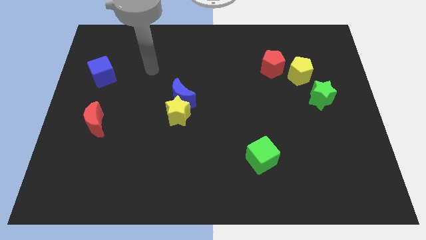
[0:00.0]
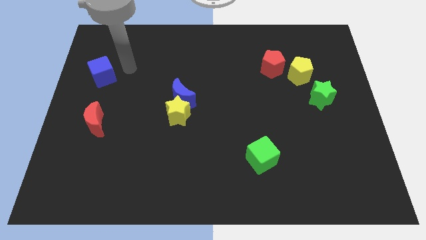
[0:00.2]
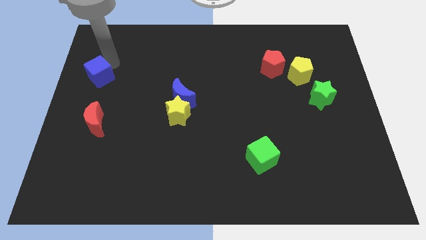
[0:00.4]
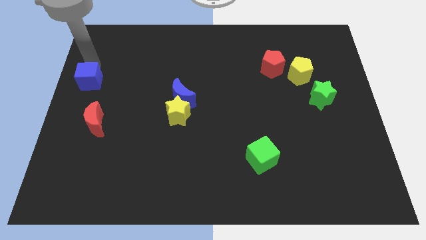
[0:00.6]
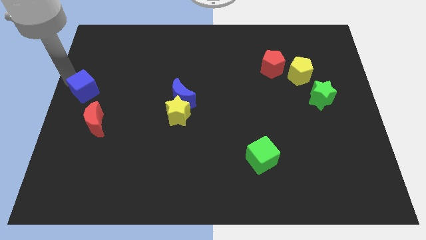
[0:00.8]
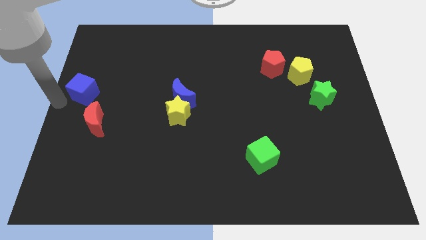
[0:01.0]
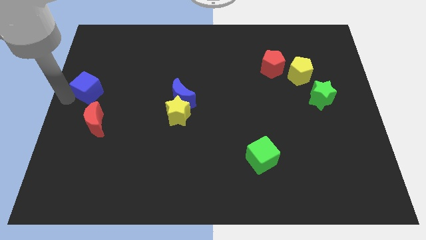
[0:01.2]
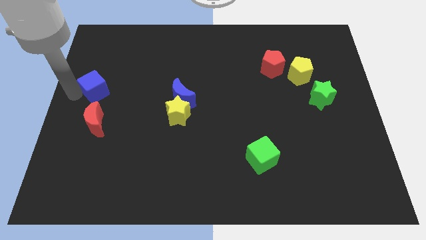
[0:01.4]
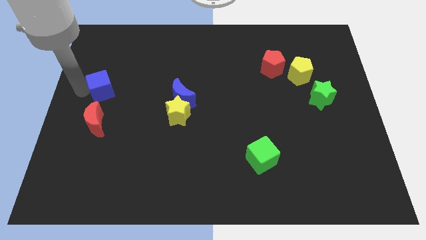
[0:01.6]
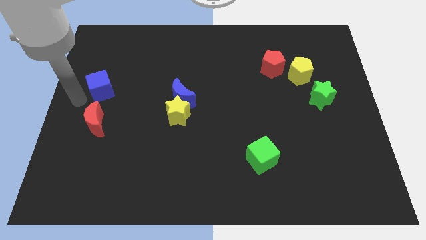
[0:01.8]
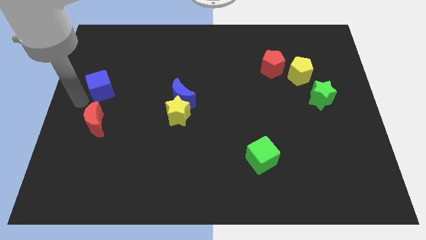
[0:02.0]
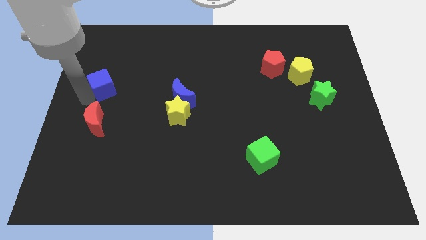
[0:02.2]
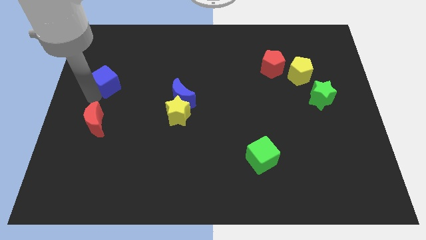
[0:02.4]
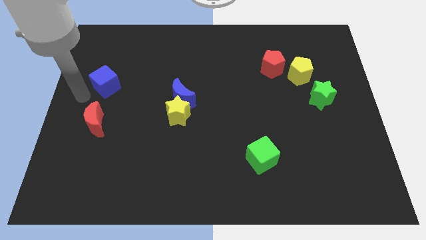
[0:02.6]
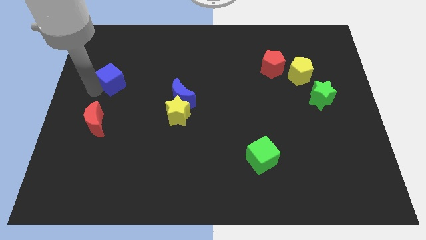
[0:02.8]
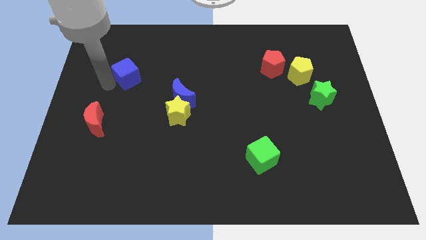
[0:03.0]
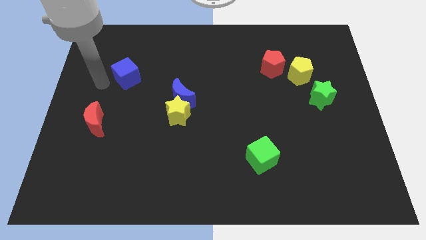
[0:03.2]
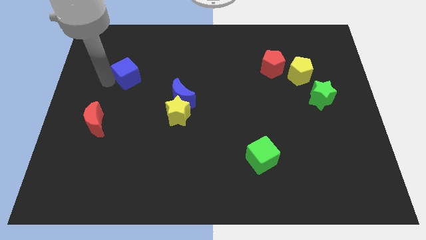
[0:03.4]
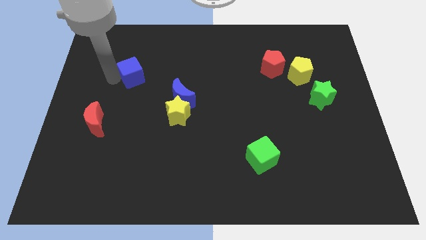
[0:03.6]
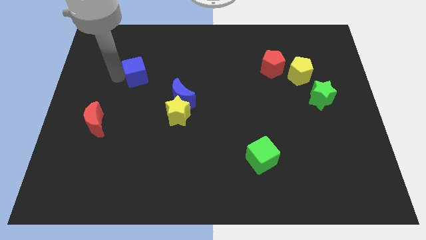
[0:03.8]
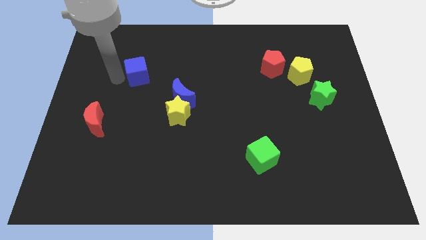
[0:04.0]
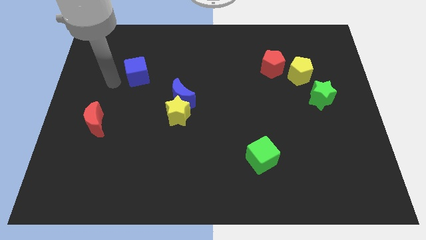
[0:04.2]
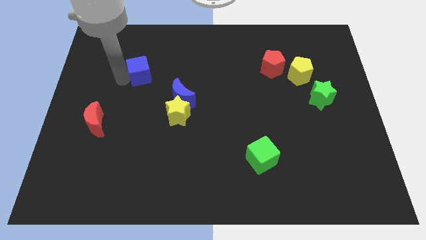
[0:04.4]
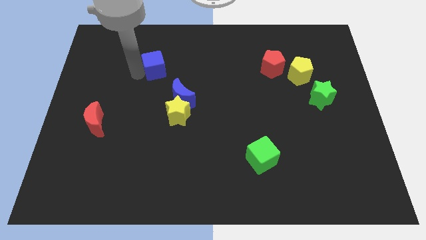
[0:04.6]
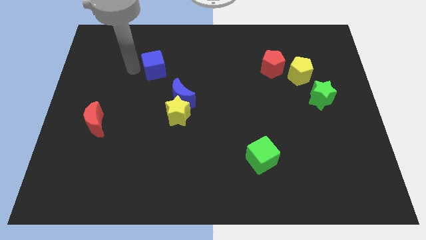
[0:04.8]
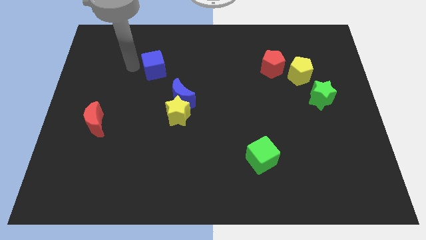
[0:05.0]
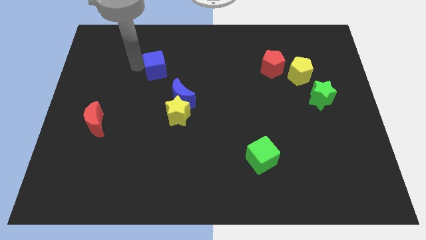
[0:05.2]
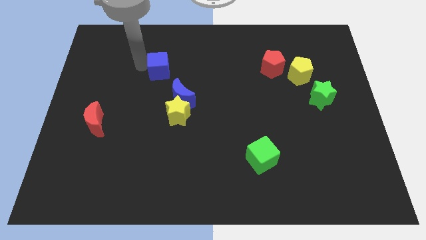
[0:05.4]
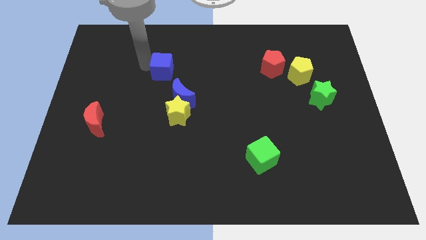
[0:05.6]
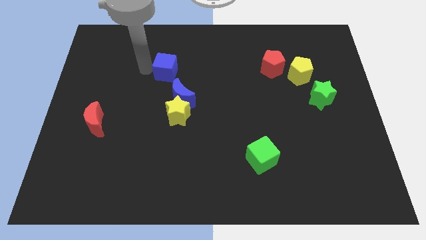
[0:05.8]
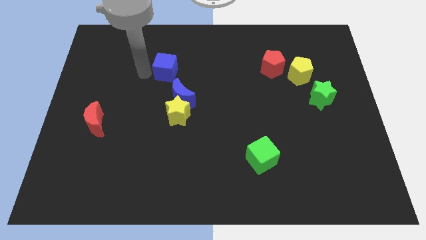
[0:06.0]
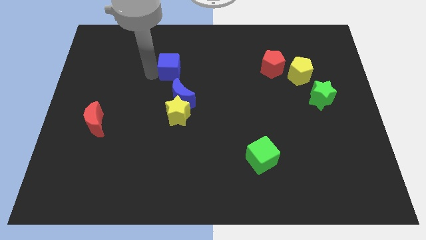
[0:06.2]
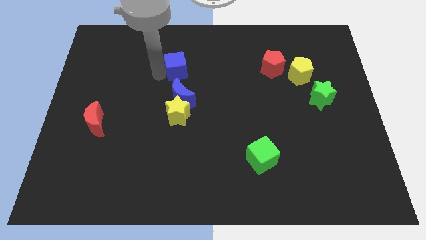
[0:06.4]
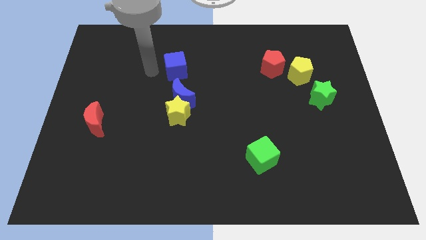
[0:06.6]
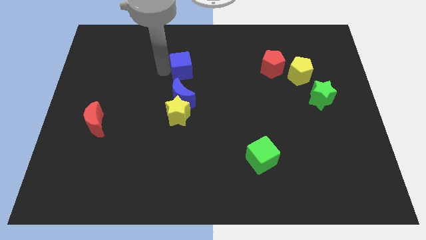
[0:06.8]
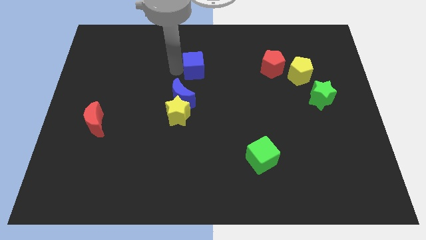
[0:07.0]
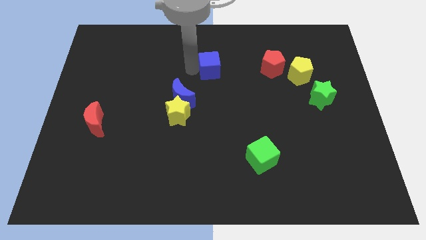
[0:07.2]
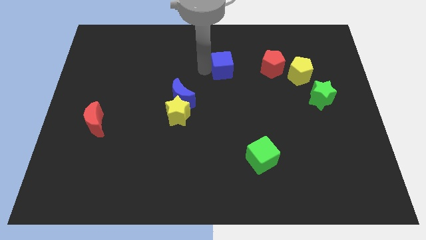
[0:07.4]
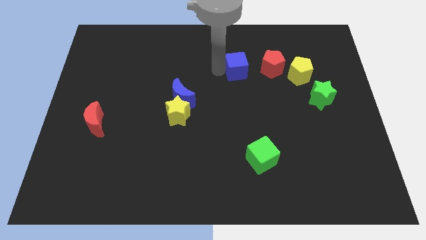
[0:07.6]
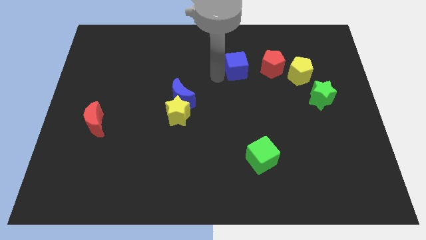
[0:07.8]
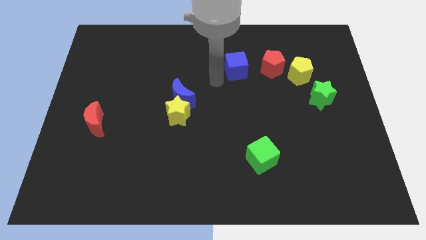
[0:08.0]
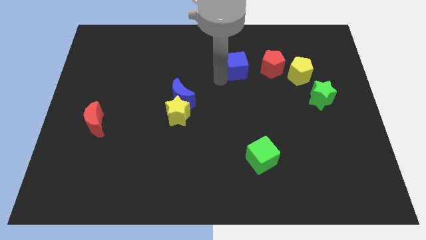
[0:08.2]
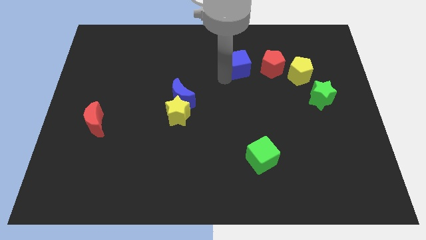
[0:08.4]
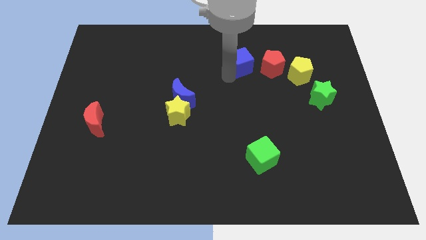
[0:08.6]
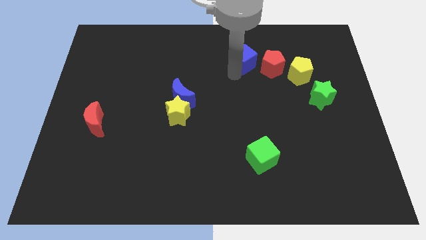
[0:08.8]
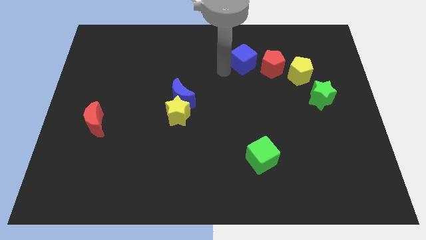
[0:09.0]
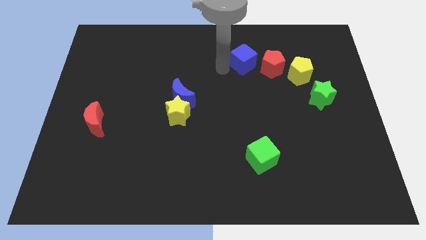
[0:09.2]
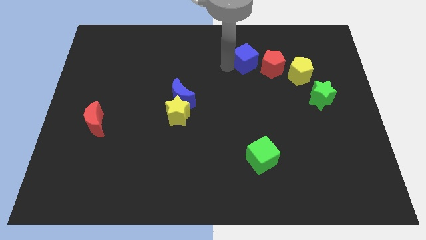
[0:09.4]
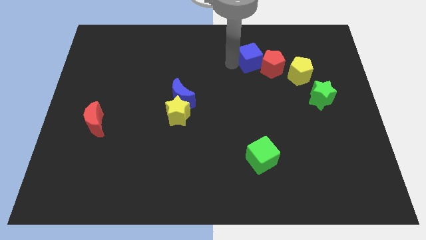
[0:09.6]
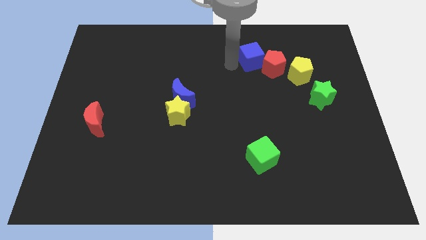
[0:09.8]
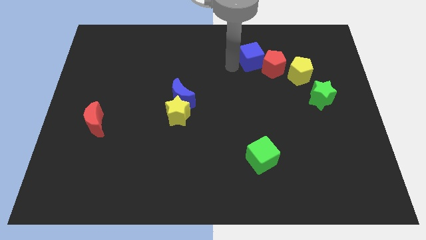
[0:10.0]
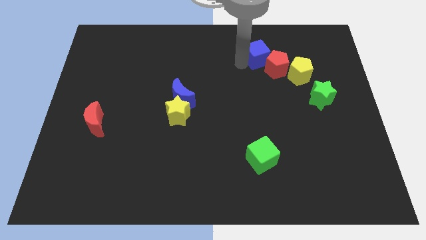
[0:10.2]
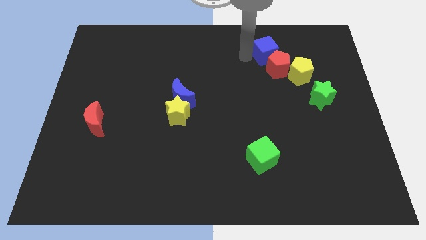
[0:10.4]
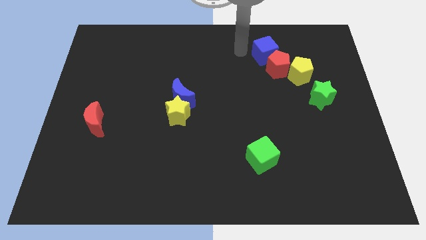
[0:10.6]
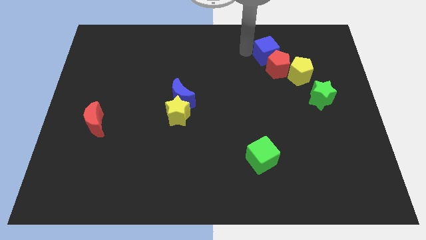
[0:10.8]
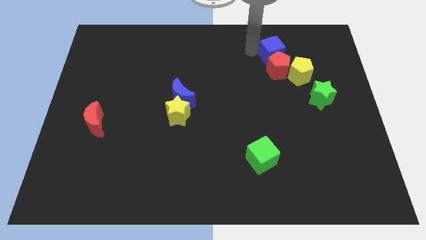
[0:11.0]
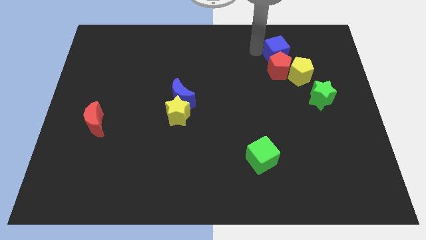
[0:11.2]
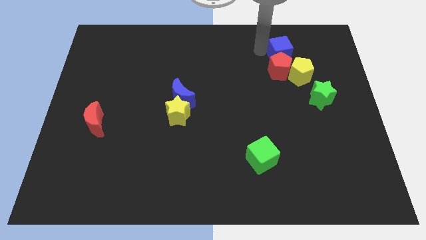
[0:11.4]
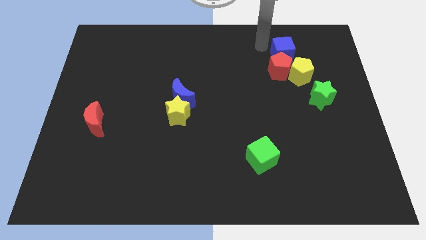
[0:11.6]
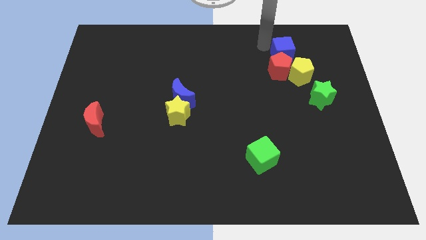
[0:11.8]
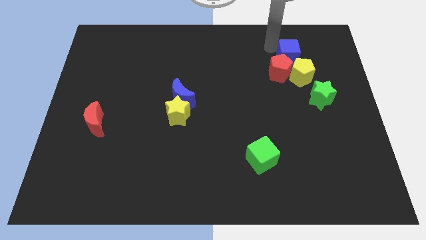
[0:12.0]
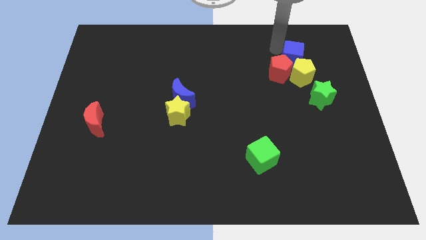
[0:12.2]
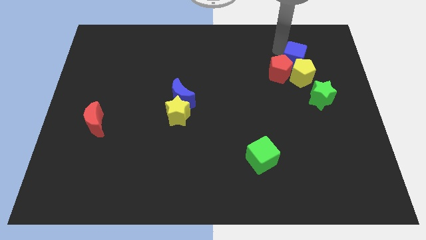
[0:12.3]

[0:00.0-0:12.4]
push the blue cube to the top side of the green star
